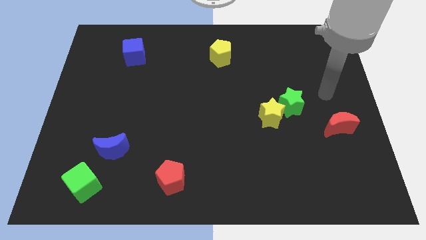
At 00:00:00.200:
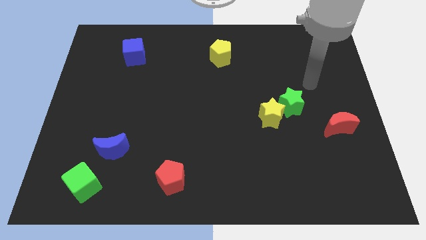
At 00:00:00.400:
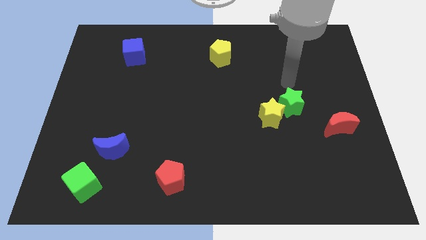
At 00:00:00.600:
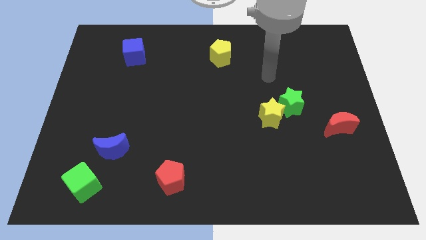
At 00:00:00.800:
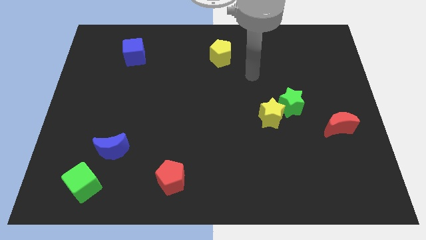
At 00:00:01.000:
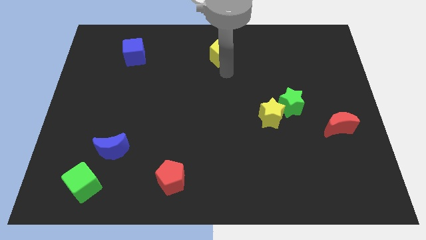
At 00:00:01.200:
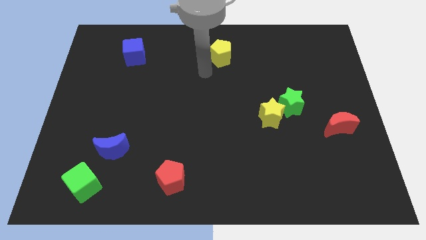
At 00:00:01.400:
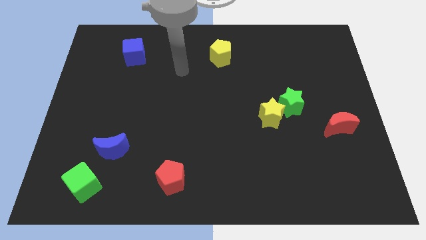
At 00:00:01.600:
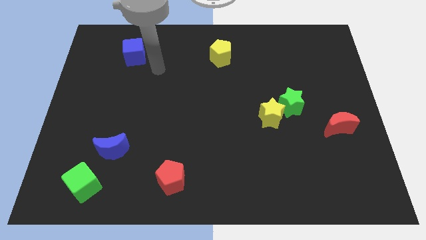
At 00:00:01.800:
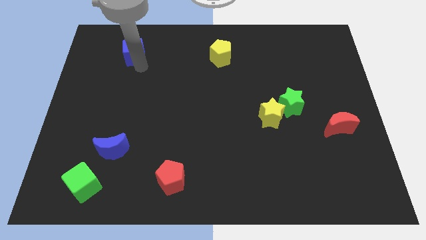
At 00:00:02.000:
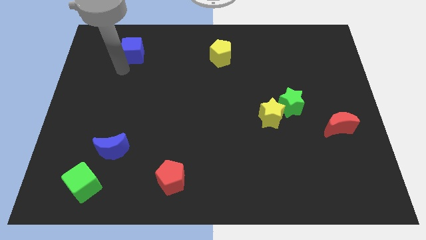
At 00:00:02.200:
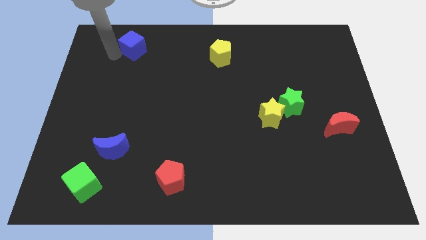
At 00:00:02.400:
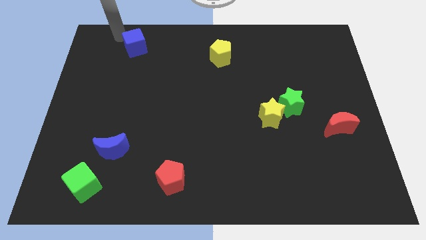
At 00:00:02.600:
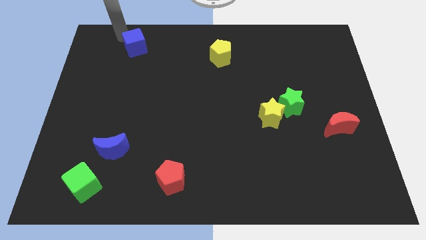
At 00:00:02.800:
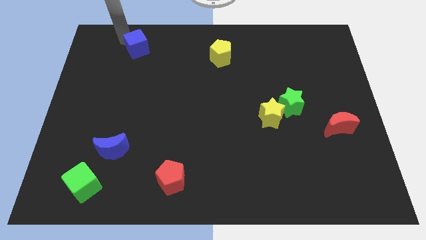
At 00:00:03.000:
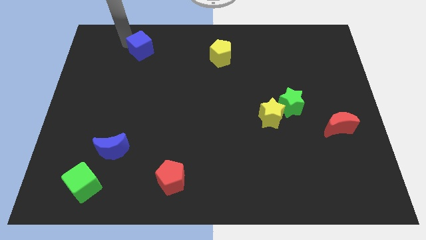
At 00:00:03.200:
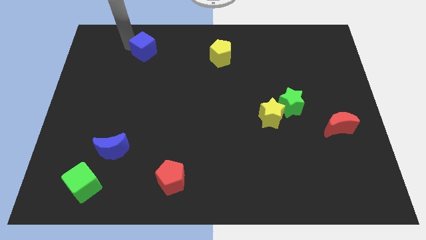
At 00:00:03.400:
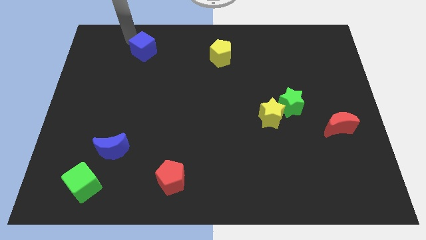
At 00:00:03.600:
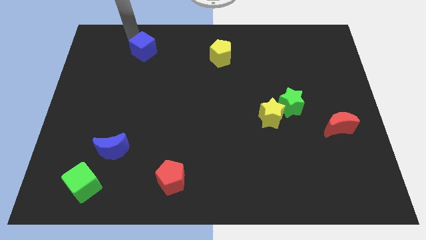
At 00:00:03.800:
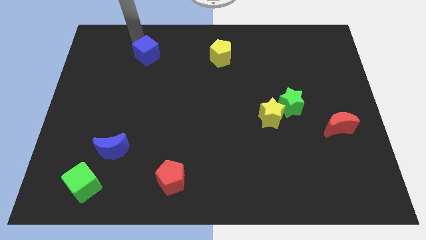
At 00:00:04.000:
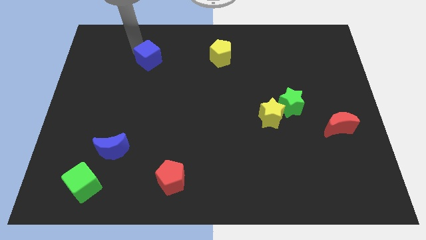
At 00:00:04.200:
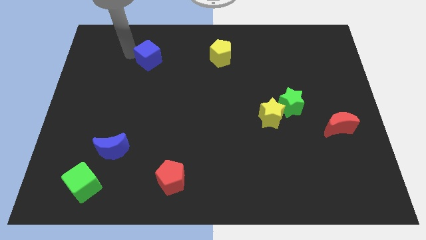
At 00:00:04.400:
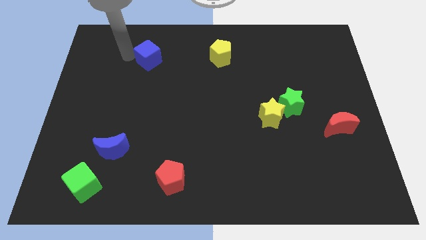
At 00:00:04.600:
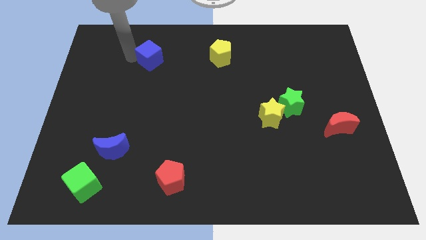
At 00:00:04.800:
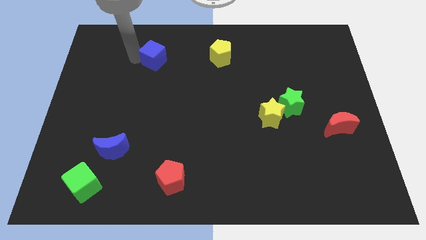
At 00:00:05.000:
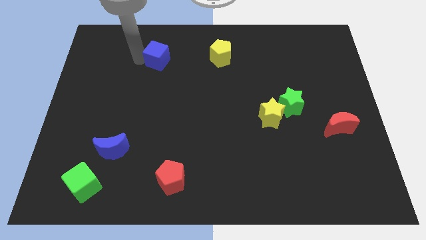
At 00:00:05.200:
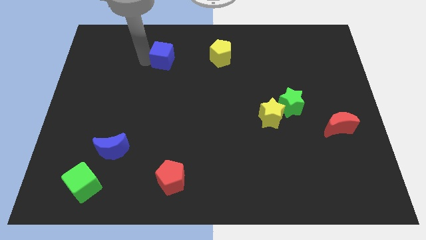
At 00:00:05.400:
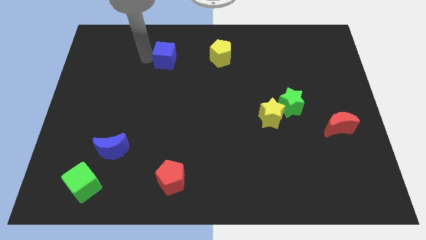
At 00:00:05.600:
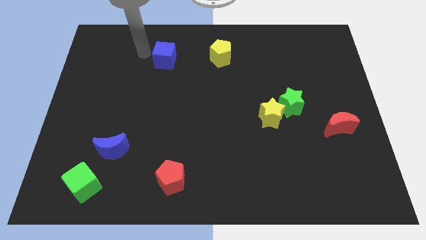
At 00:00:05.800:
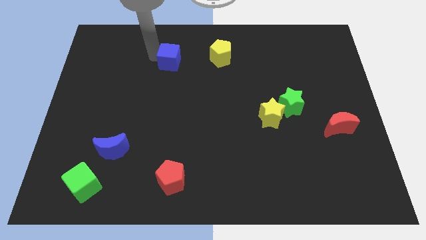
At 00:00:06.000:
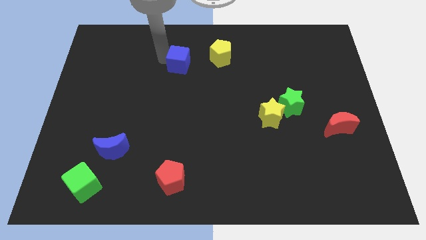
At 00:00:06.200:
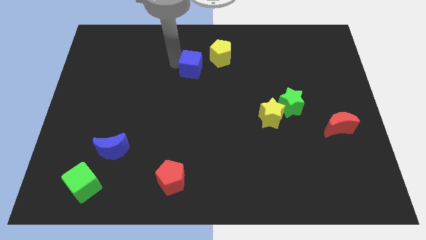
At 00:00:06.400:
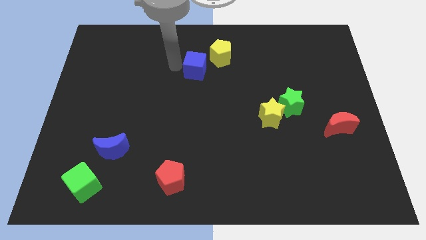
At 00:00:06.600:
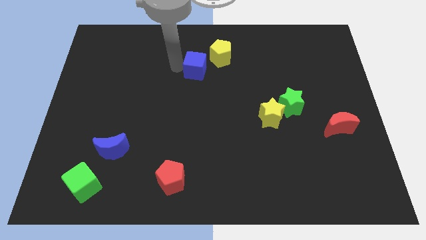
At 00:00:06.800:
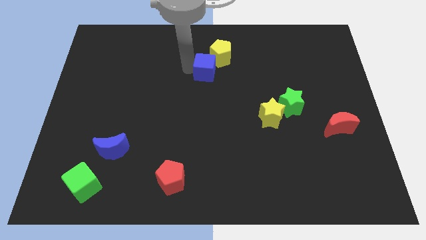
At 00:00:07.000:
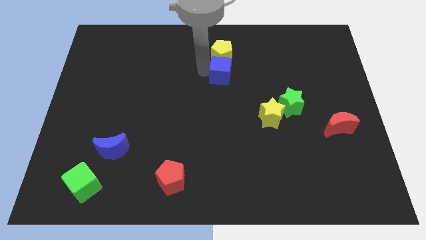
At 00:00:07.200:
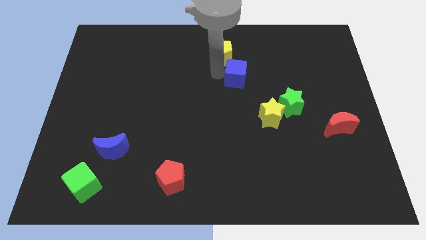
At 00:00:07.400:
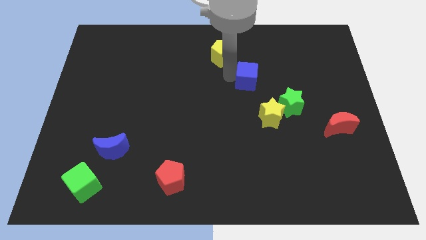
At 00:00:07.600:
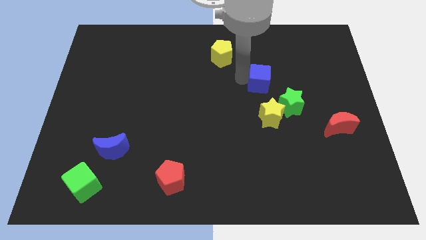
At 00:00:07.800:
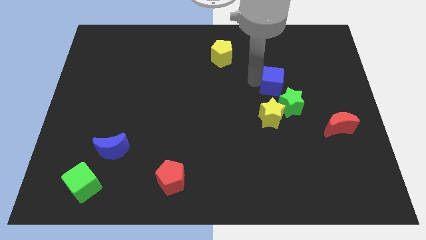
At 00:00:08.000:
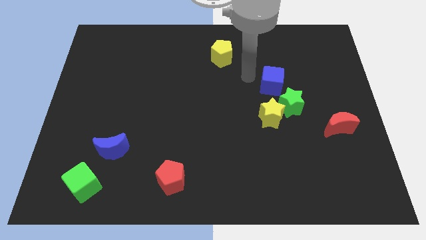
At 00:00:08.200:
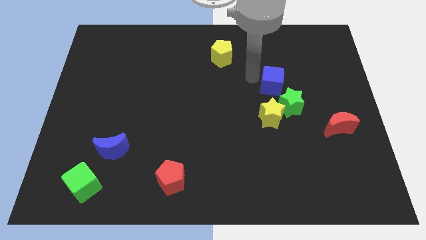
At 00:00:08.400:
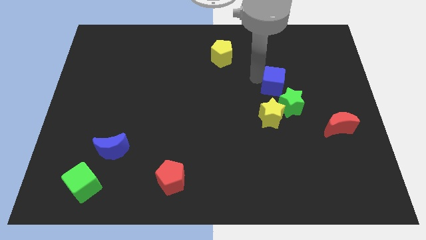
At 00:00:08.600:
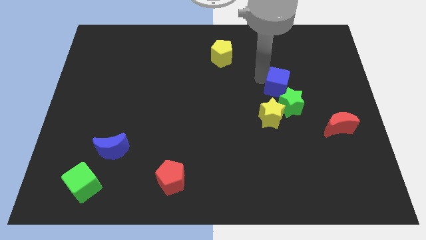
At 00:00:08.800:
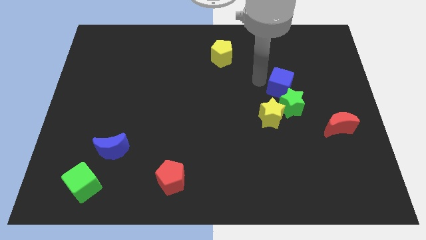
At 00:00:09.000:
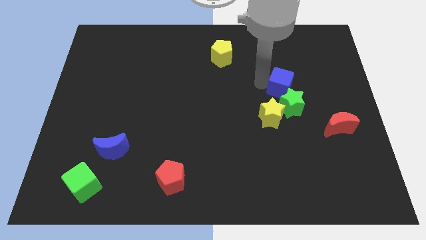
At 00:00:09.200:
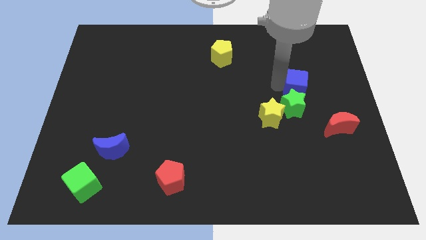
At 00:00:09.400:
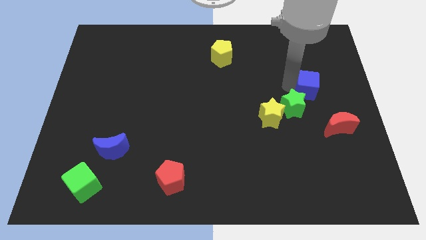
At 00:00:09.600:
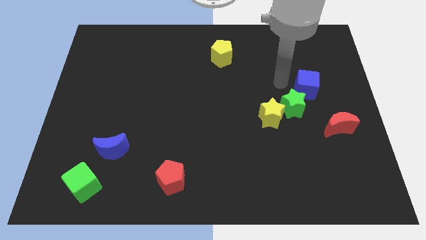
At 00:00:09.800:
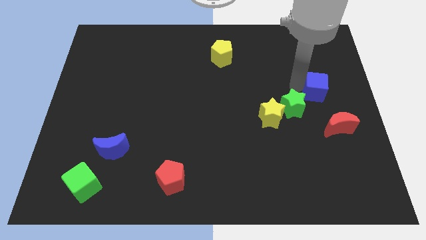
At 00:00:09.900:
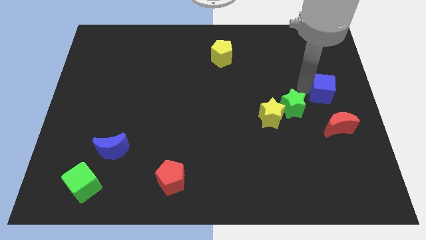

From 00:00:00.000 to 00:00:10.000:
put the blue cube to the center right
